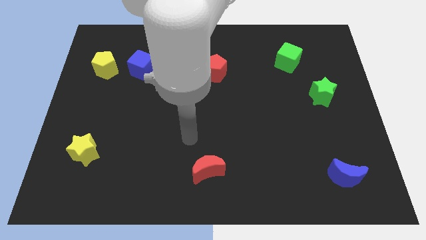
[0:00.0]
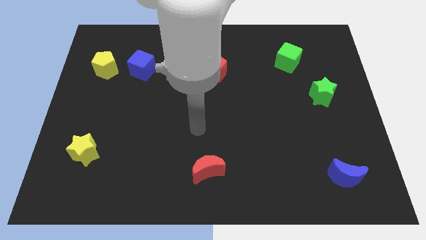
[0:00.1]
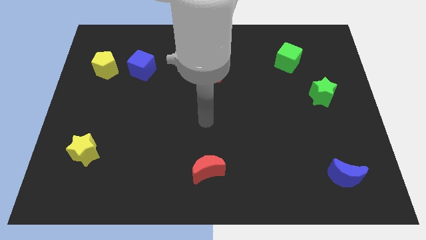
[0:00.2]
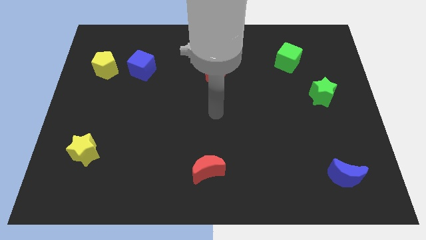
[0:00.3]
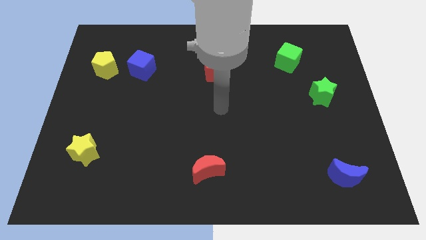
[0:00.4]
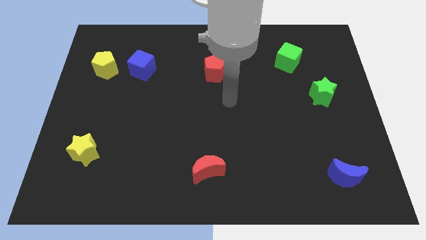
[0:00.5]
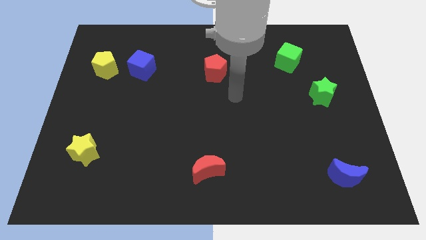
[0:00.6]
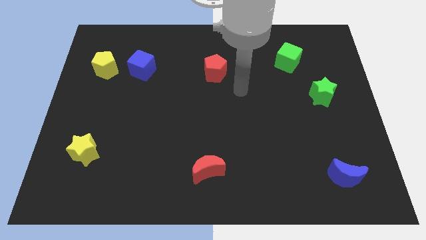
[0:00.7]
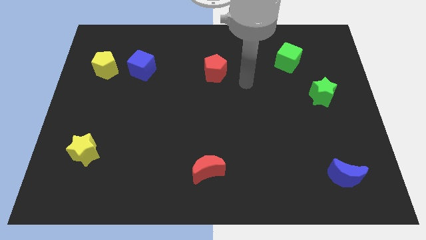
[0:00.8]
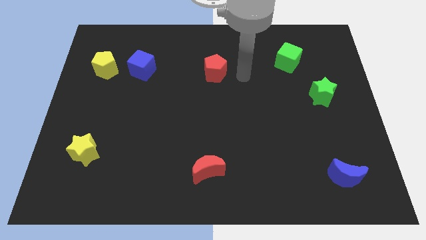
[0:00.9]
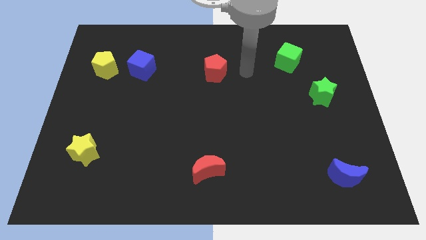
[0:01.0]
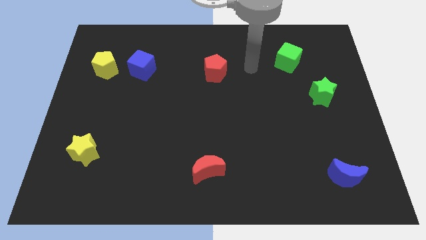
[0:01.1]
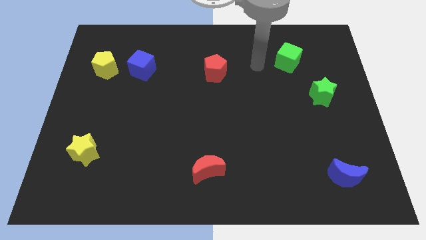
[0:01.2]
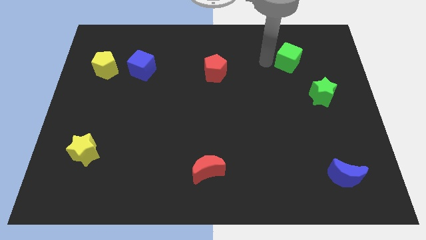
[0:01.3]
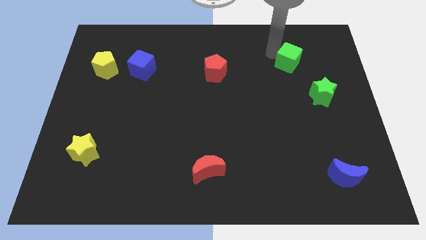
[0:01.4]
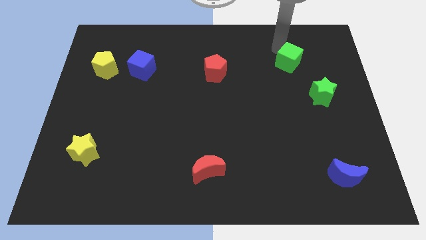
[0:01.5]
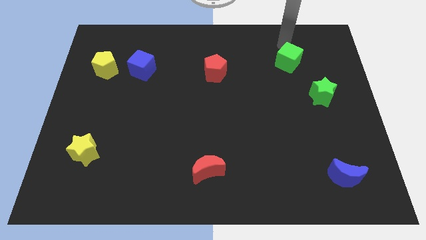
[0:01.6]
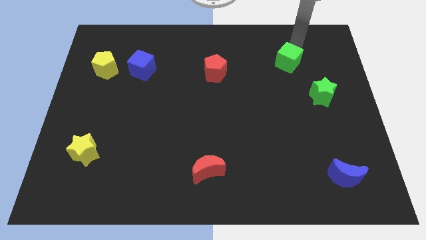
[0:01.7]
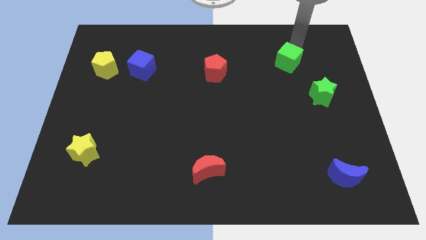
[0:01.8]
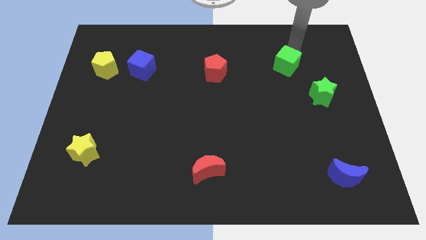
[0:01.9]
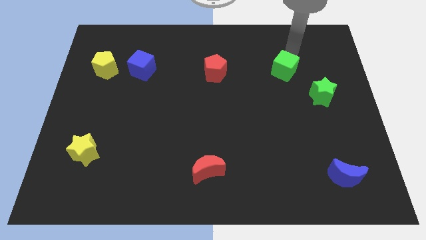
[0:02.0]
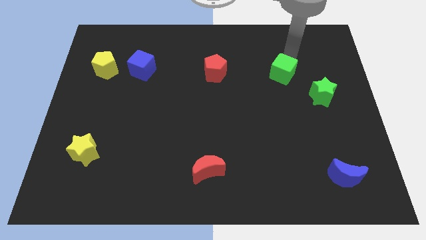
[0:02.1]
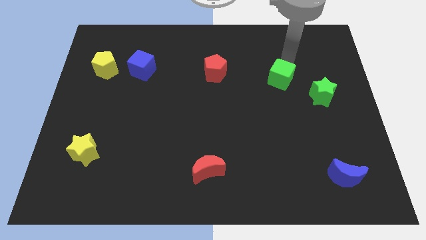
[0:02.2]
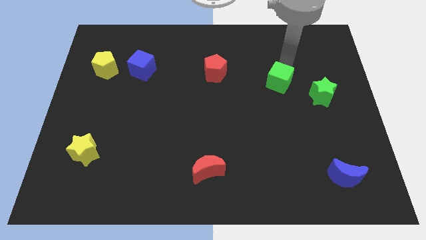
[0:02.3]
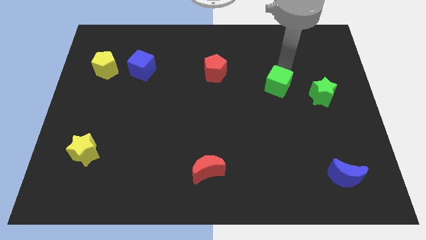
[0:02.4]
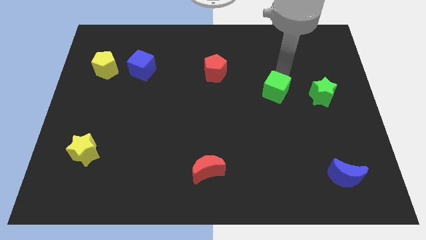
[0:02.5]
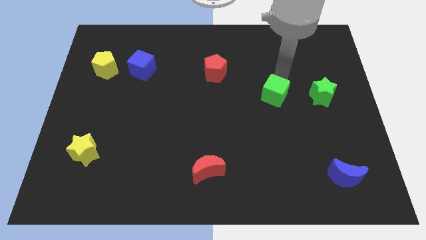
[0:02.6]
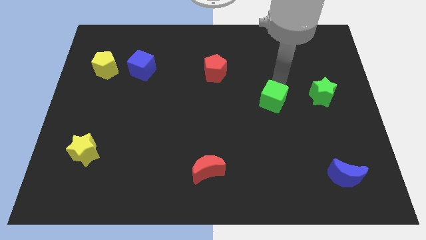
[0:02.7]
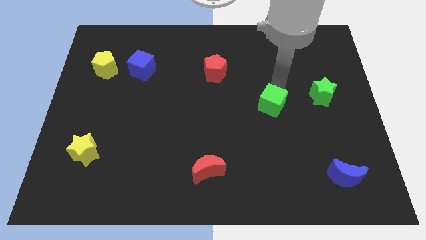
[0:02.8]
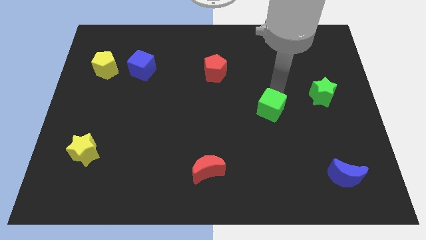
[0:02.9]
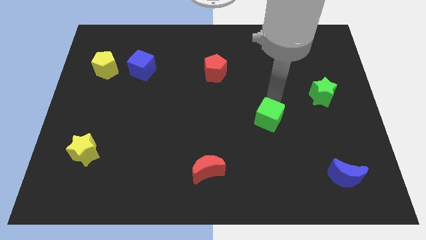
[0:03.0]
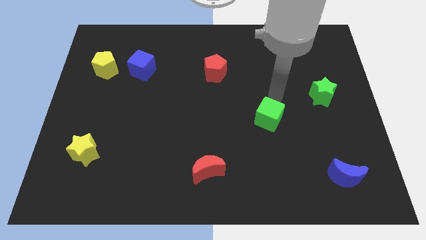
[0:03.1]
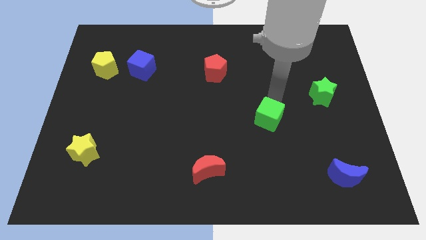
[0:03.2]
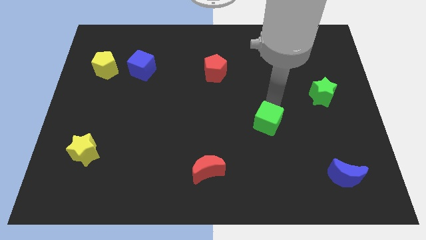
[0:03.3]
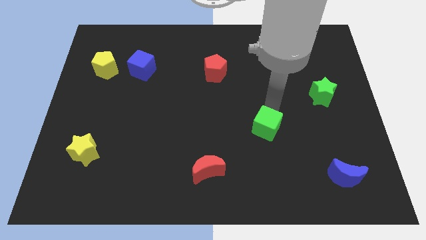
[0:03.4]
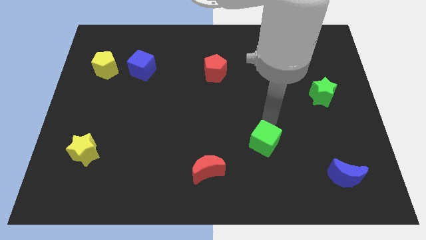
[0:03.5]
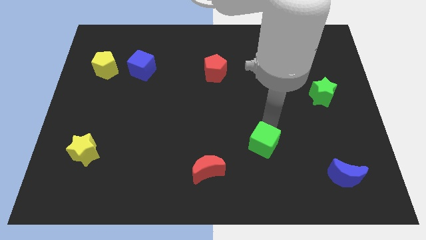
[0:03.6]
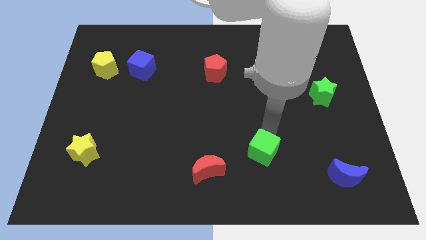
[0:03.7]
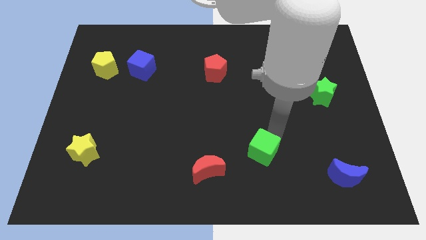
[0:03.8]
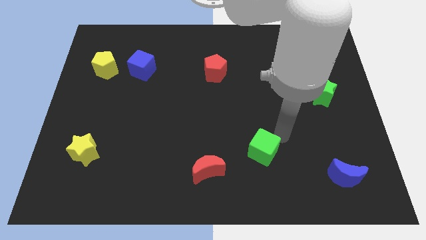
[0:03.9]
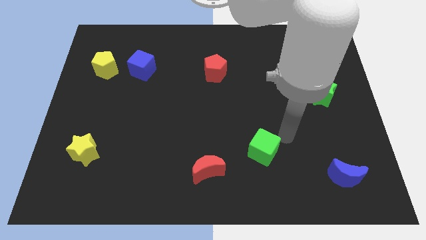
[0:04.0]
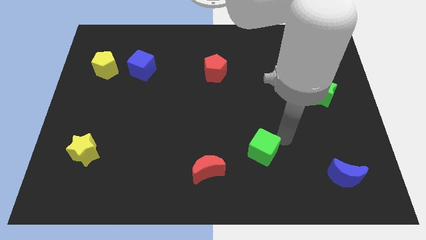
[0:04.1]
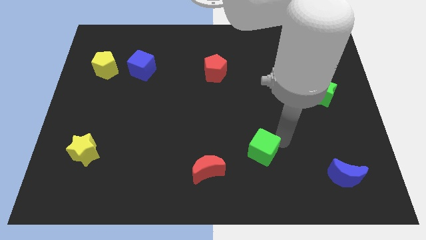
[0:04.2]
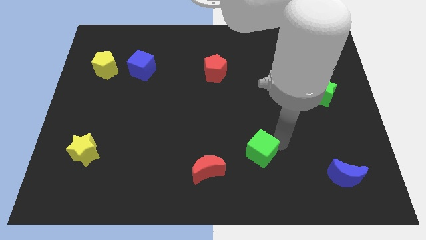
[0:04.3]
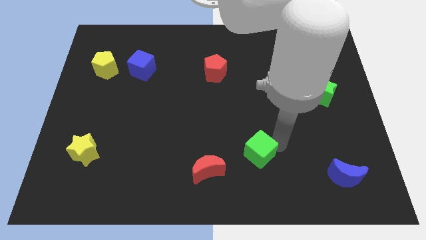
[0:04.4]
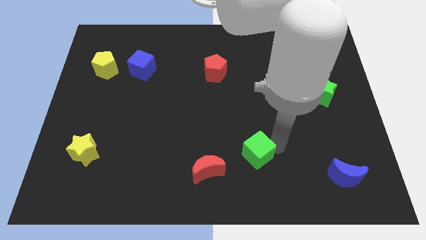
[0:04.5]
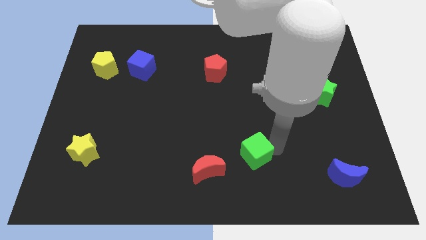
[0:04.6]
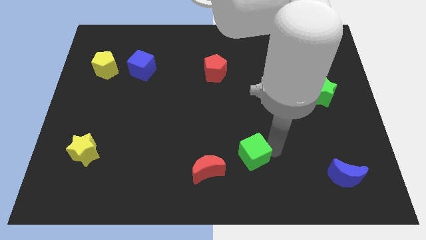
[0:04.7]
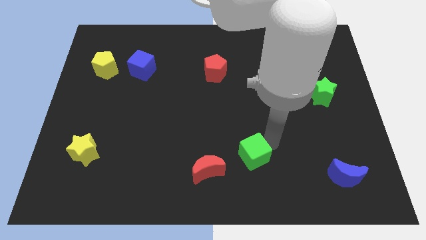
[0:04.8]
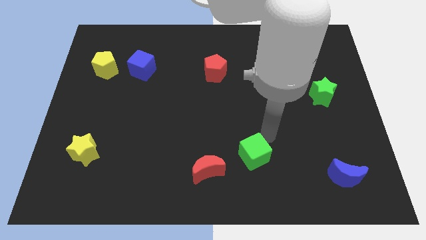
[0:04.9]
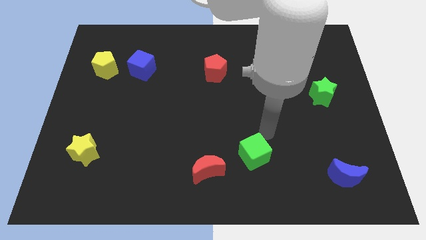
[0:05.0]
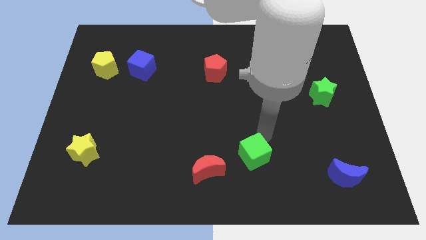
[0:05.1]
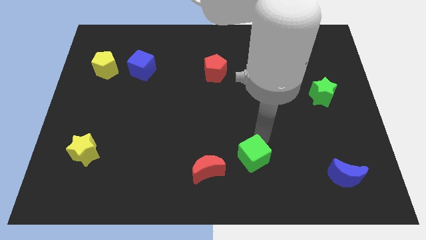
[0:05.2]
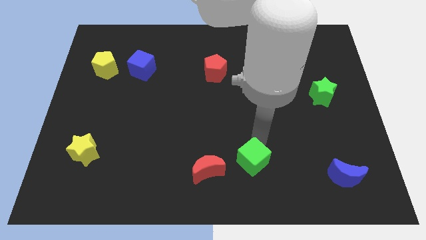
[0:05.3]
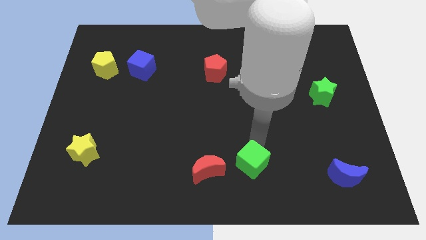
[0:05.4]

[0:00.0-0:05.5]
push the green cube to the bottom

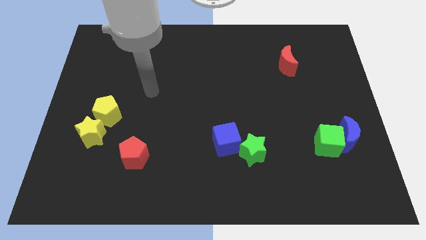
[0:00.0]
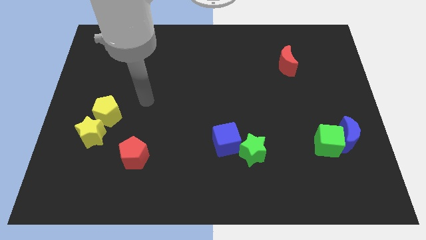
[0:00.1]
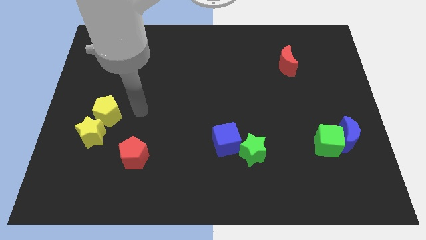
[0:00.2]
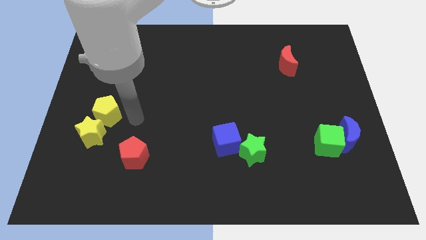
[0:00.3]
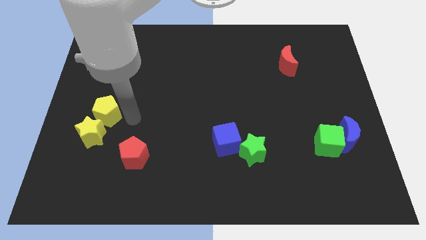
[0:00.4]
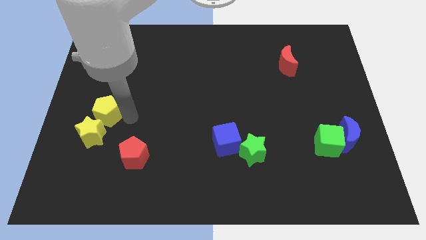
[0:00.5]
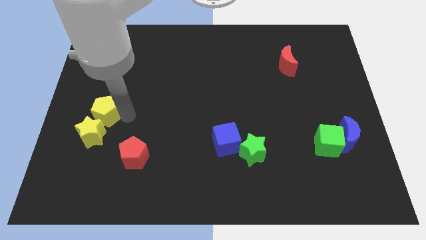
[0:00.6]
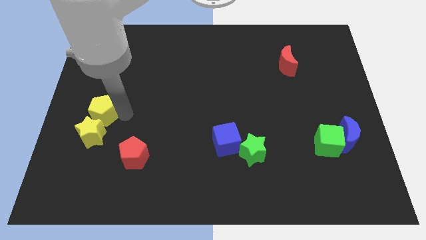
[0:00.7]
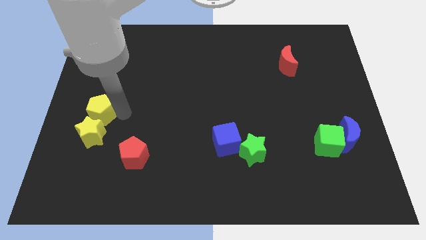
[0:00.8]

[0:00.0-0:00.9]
push the yellow pentagon to the center left

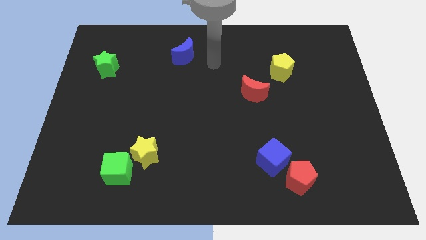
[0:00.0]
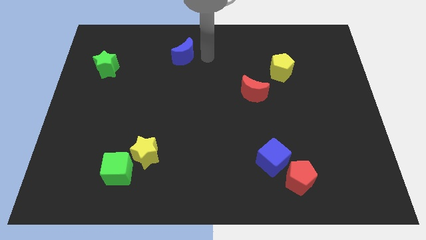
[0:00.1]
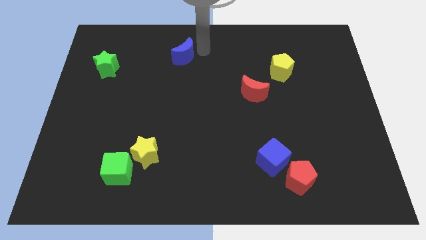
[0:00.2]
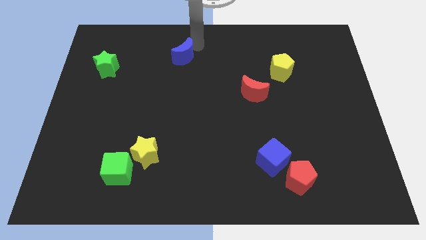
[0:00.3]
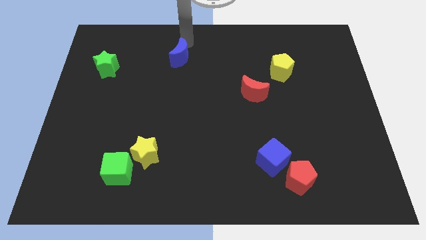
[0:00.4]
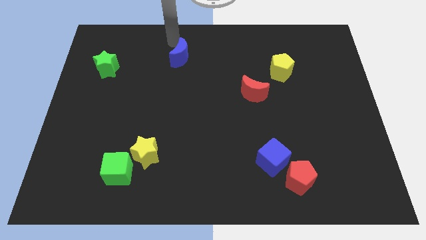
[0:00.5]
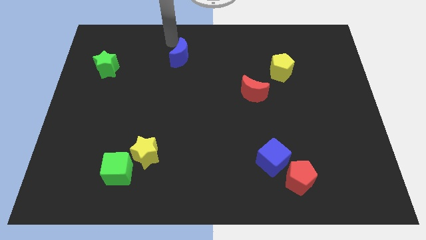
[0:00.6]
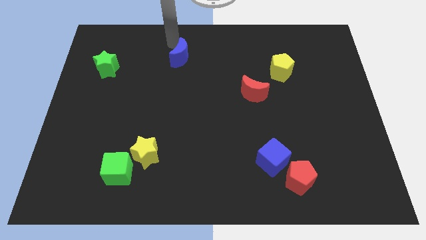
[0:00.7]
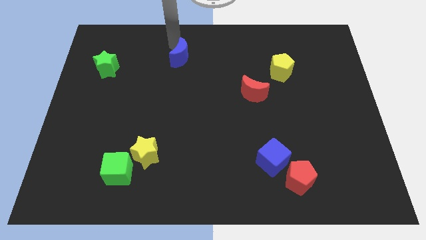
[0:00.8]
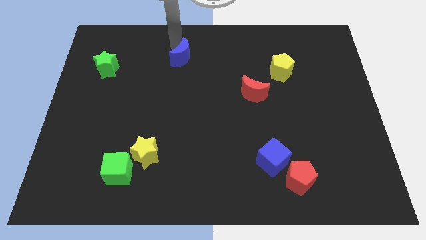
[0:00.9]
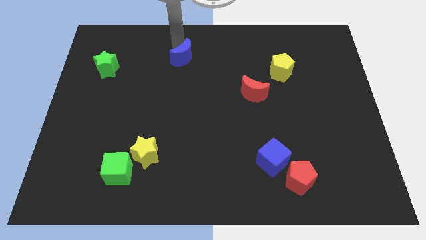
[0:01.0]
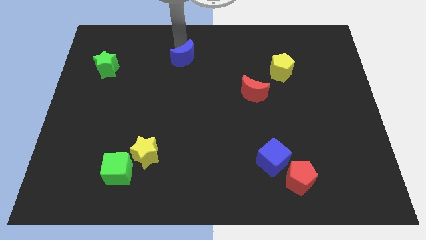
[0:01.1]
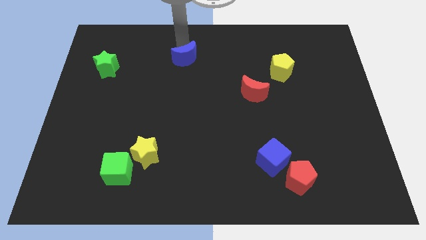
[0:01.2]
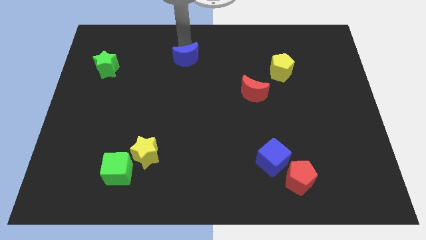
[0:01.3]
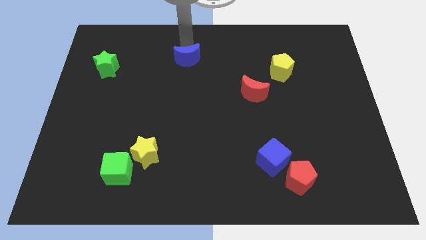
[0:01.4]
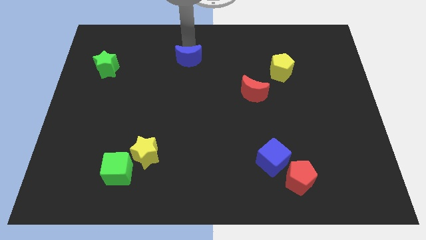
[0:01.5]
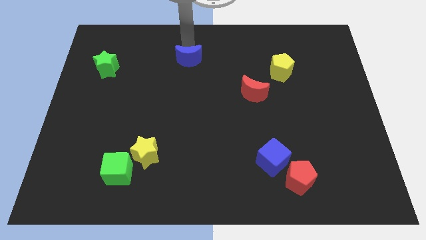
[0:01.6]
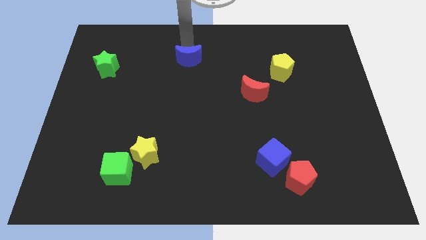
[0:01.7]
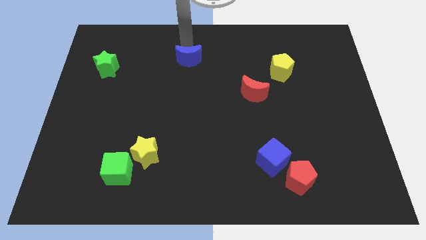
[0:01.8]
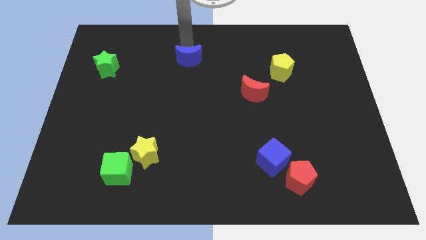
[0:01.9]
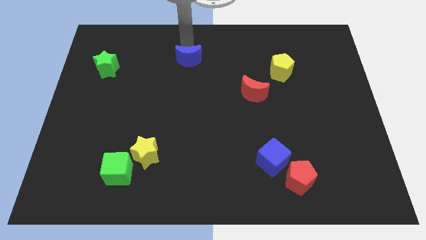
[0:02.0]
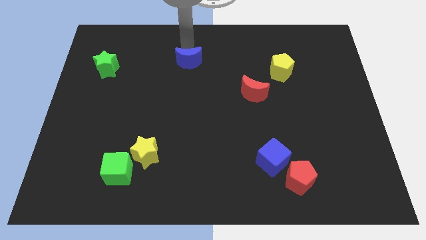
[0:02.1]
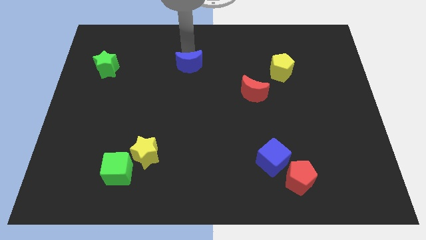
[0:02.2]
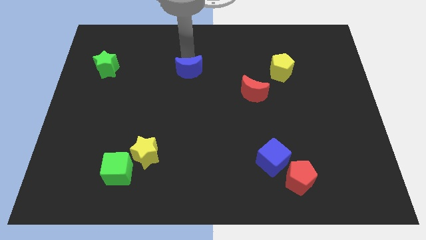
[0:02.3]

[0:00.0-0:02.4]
put the blue moon to the middle of the board
